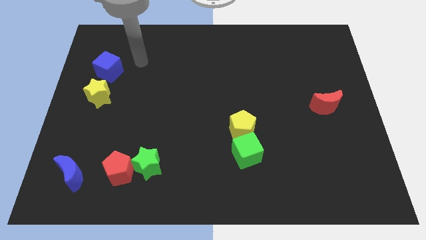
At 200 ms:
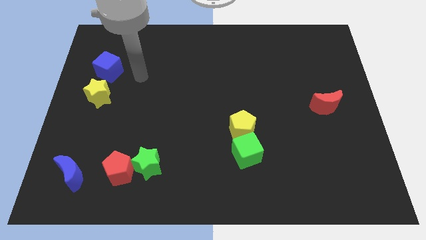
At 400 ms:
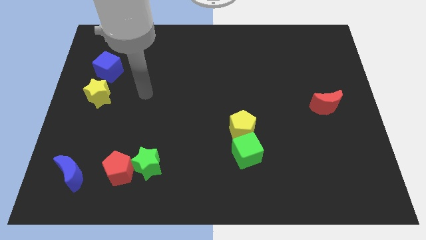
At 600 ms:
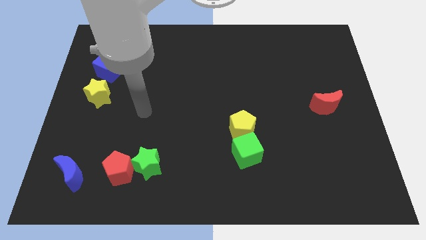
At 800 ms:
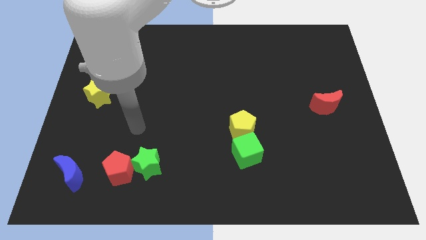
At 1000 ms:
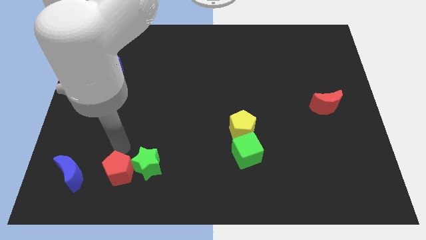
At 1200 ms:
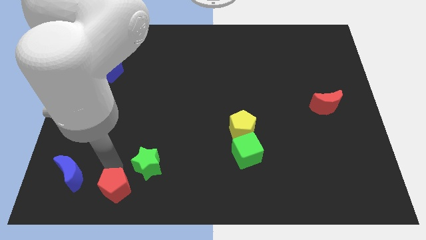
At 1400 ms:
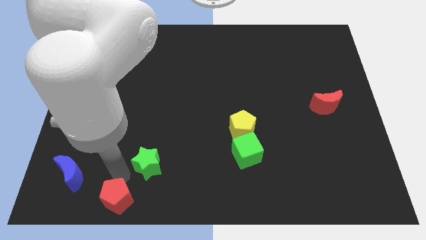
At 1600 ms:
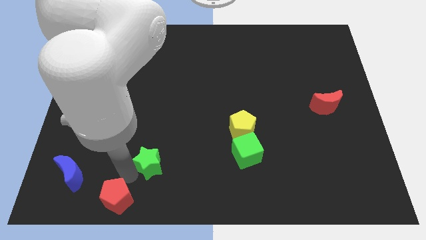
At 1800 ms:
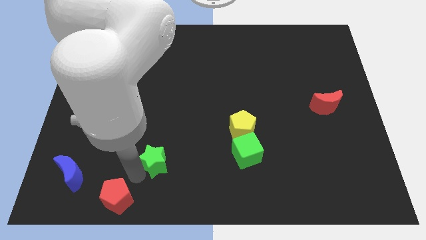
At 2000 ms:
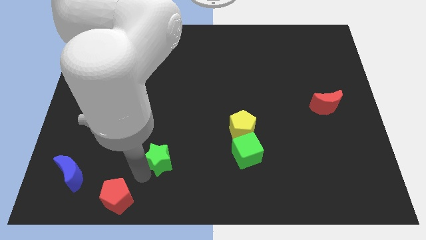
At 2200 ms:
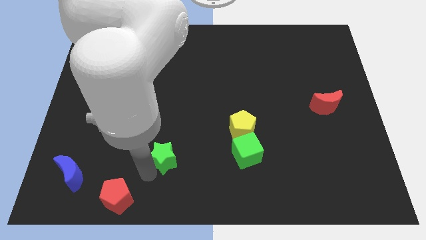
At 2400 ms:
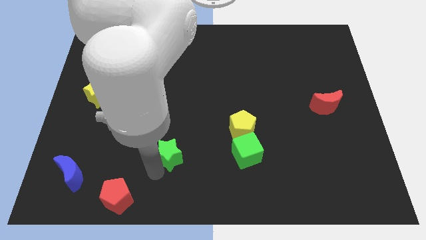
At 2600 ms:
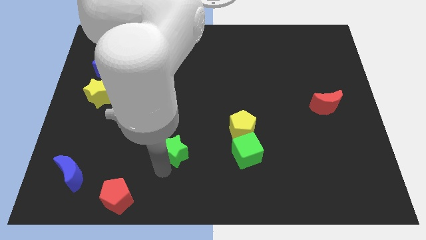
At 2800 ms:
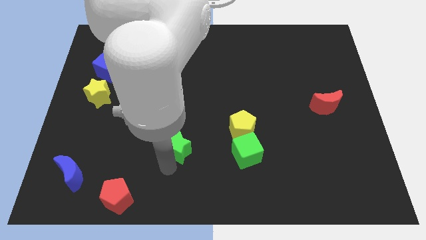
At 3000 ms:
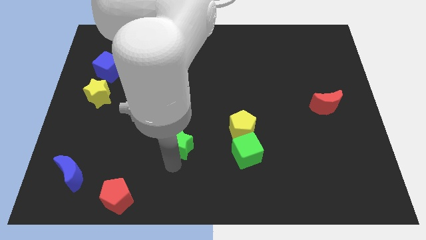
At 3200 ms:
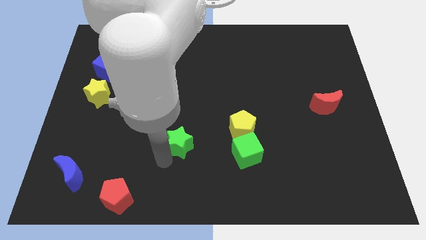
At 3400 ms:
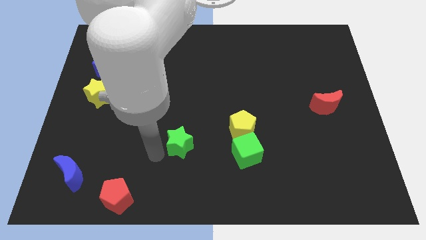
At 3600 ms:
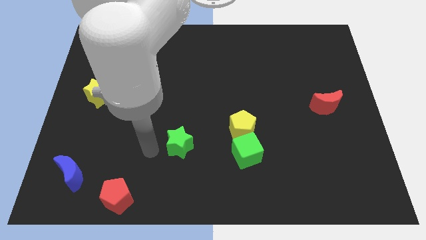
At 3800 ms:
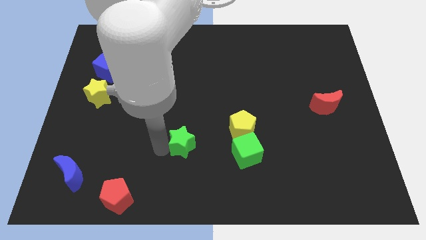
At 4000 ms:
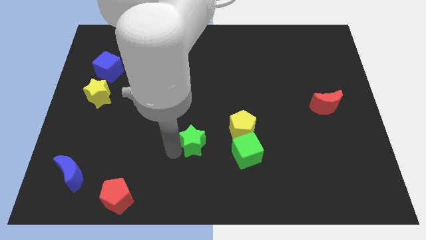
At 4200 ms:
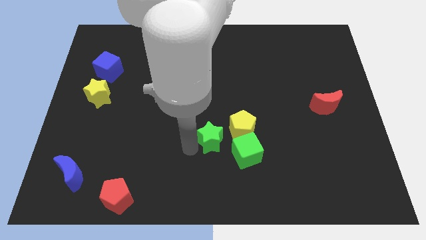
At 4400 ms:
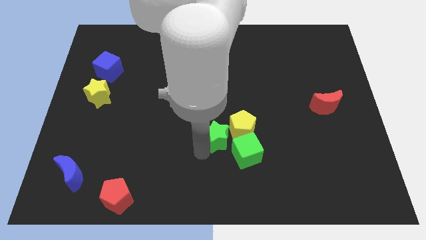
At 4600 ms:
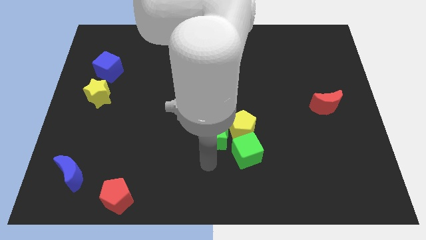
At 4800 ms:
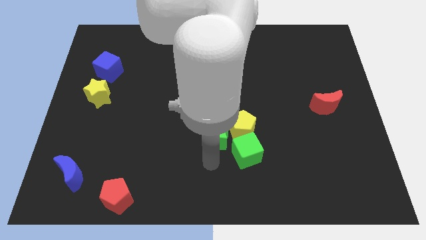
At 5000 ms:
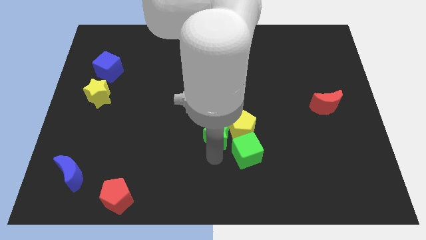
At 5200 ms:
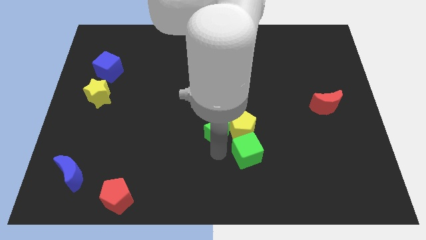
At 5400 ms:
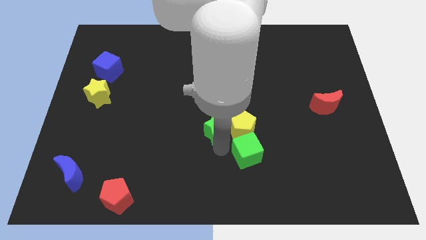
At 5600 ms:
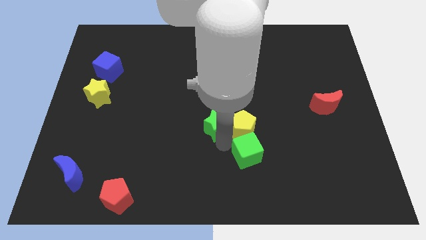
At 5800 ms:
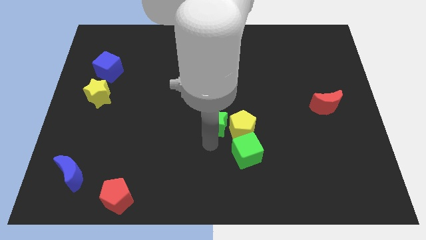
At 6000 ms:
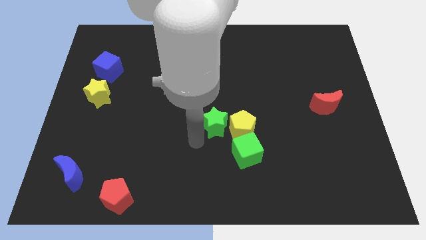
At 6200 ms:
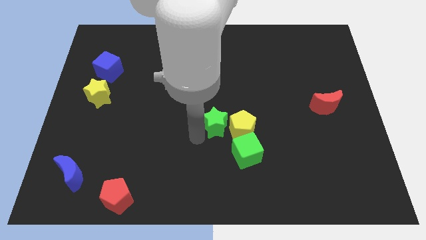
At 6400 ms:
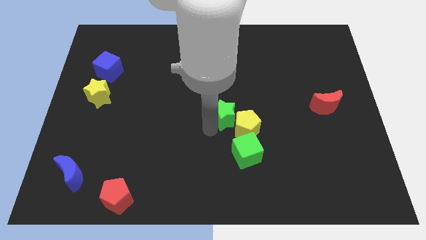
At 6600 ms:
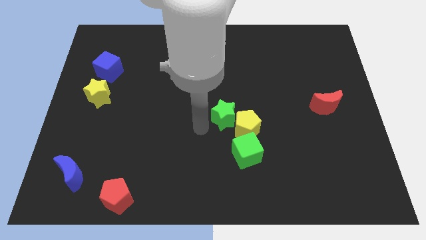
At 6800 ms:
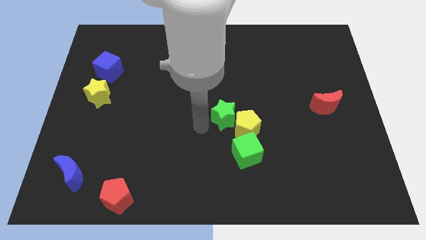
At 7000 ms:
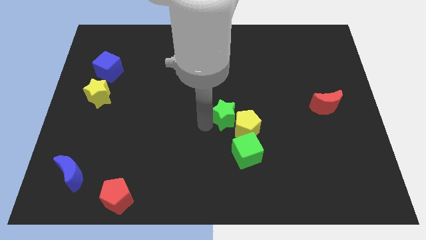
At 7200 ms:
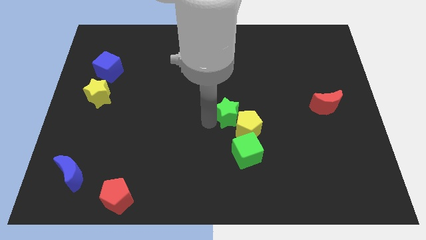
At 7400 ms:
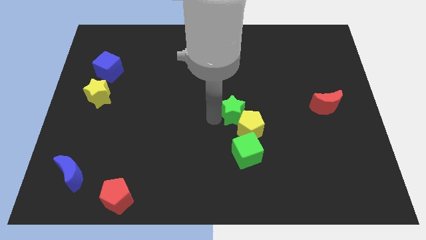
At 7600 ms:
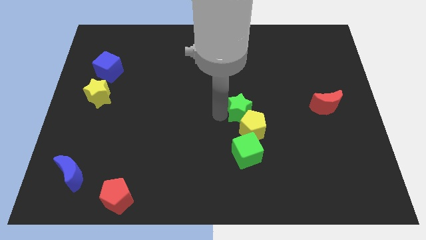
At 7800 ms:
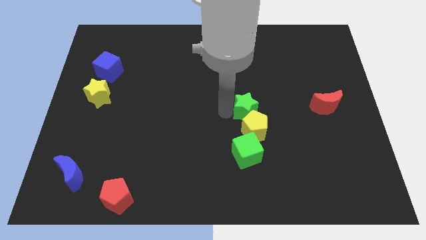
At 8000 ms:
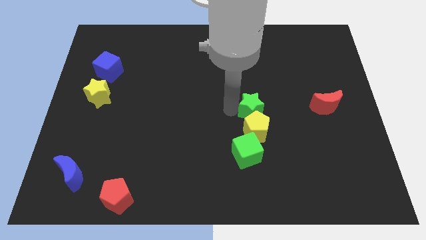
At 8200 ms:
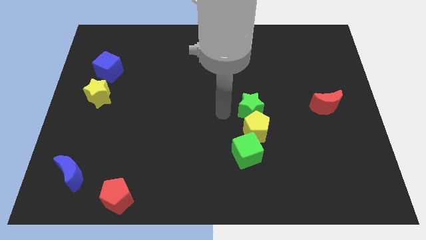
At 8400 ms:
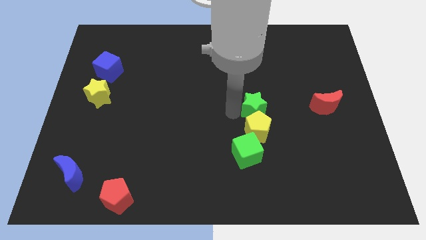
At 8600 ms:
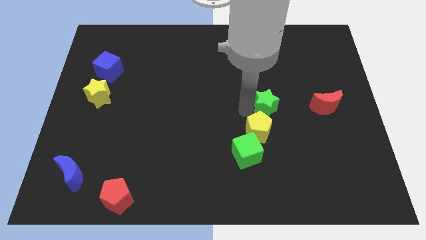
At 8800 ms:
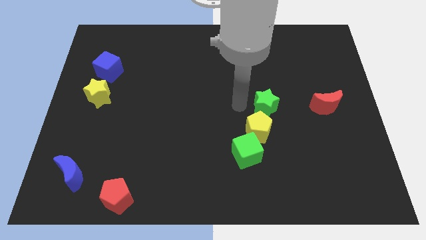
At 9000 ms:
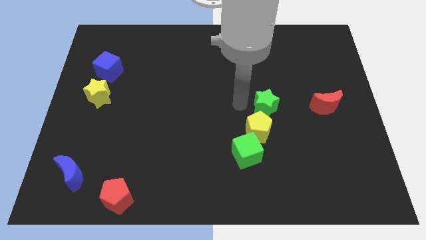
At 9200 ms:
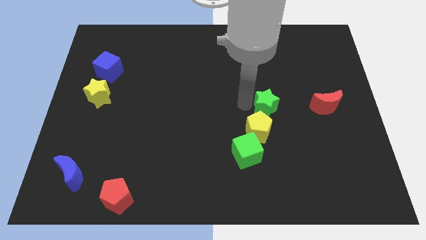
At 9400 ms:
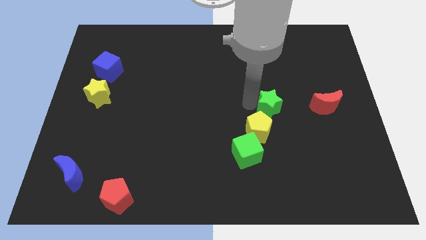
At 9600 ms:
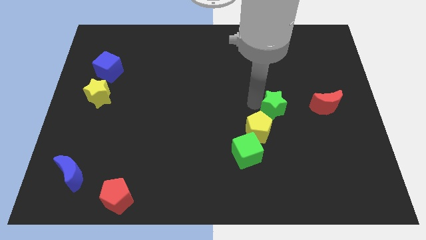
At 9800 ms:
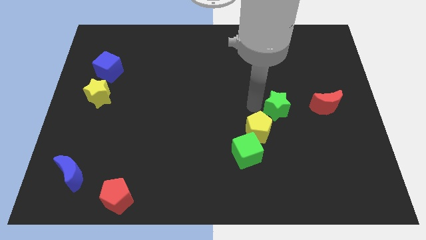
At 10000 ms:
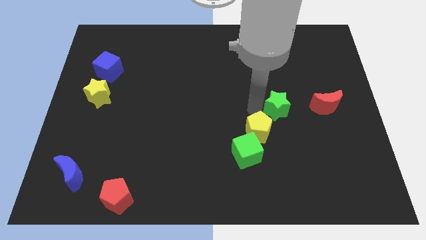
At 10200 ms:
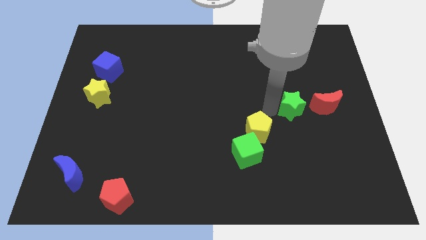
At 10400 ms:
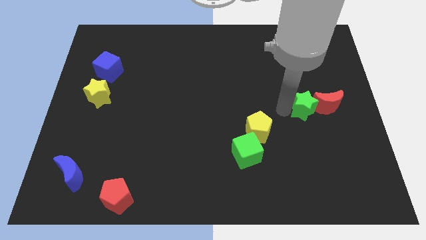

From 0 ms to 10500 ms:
put the green star next to the red moon

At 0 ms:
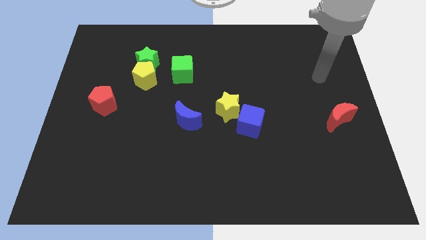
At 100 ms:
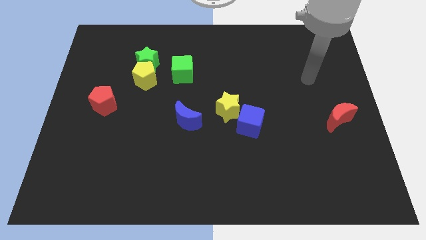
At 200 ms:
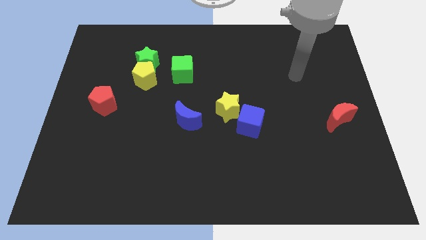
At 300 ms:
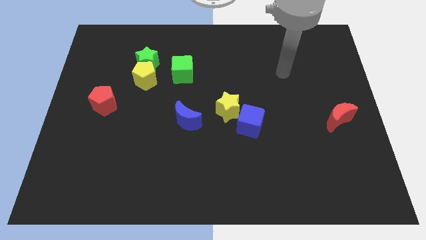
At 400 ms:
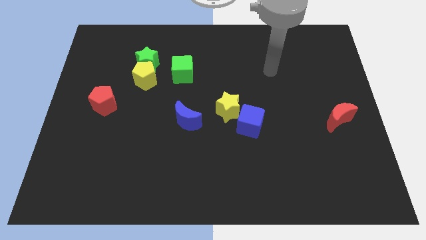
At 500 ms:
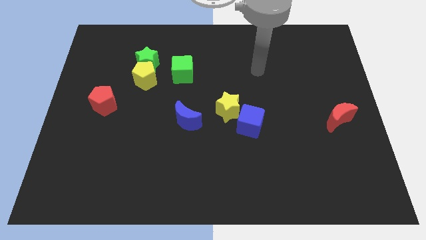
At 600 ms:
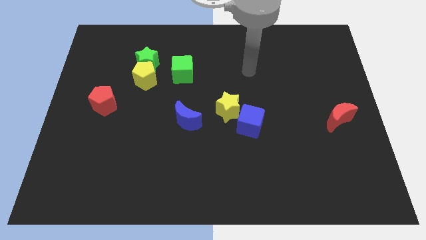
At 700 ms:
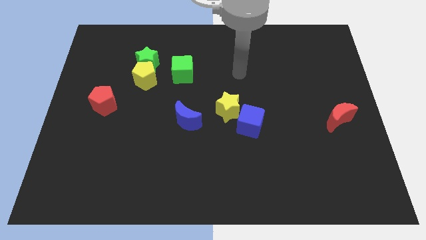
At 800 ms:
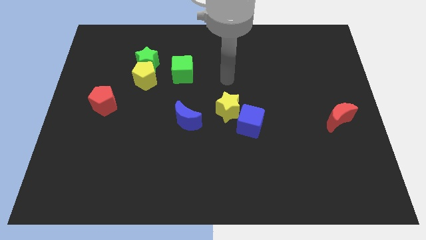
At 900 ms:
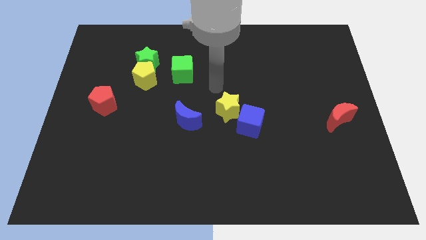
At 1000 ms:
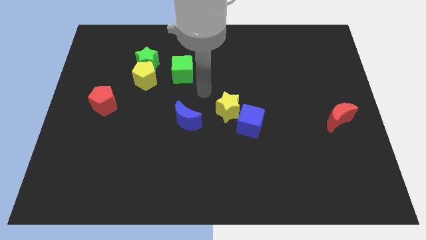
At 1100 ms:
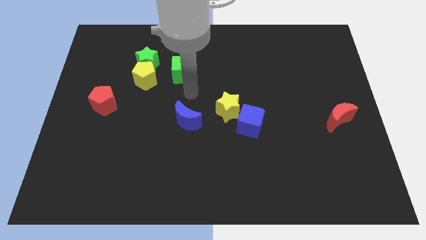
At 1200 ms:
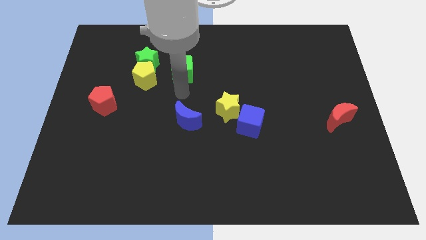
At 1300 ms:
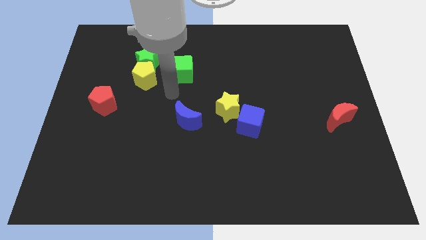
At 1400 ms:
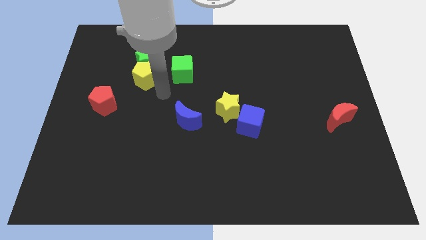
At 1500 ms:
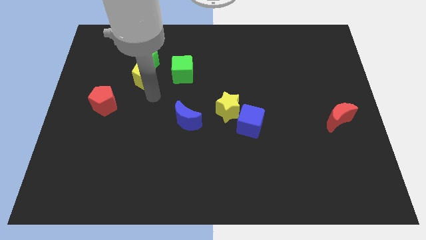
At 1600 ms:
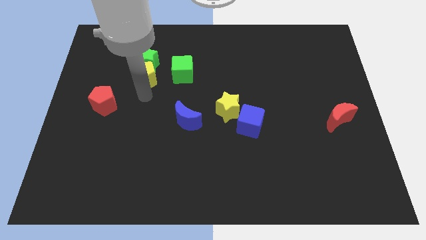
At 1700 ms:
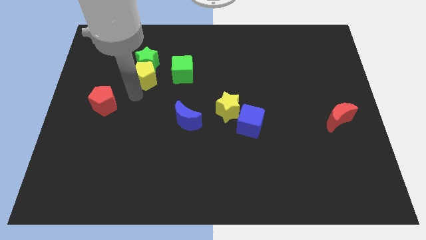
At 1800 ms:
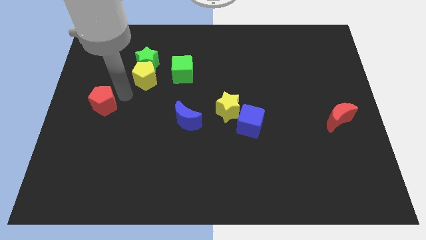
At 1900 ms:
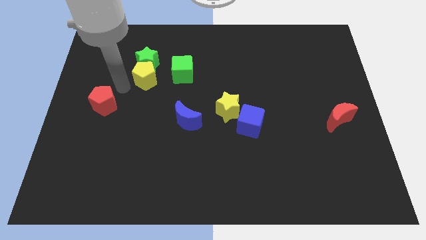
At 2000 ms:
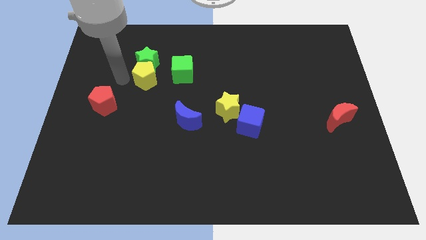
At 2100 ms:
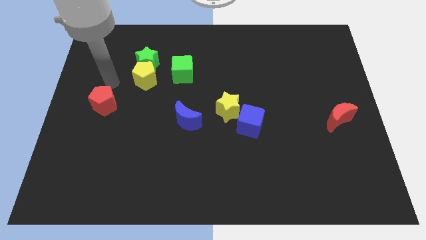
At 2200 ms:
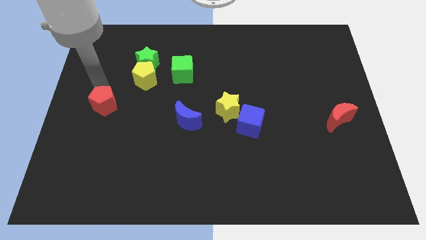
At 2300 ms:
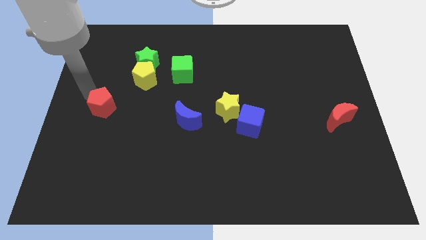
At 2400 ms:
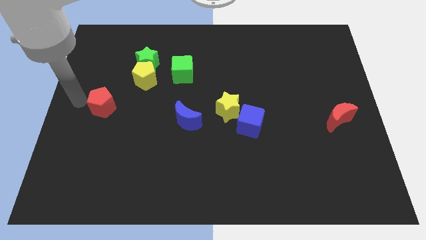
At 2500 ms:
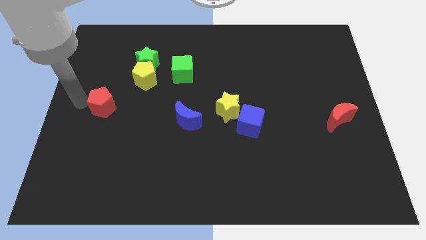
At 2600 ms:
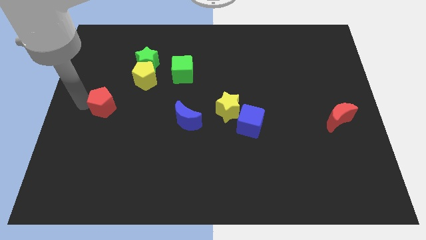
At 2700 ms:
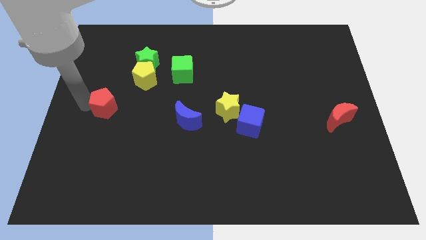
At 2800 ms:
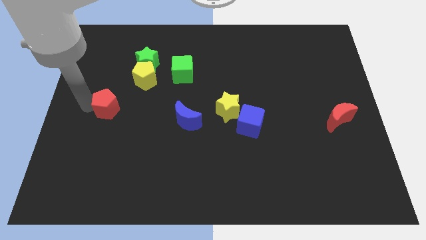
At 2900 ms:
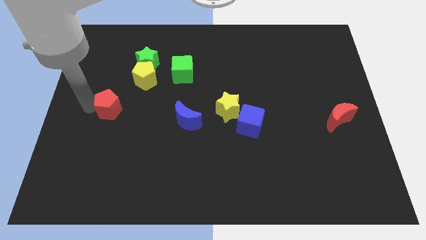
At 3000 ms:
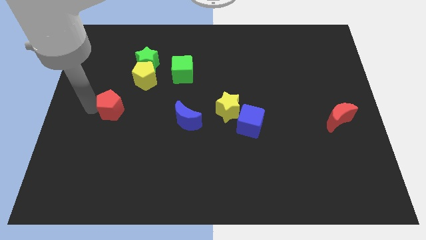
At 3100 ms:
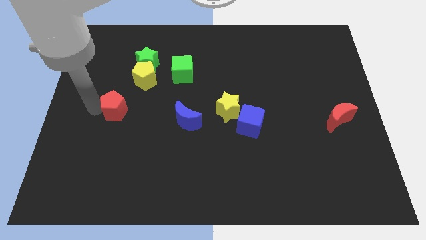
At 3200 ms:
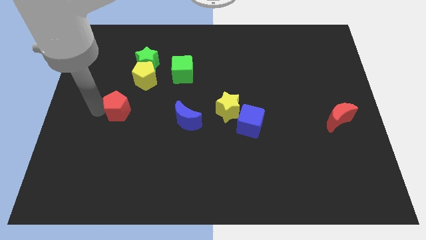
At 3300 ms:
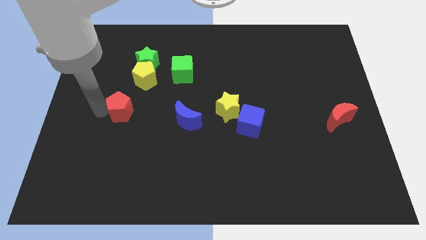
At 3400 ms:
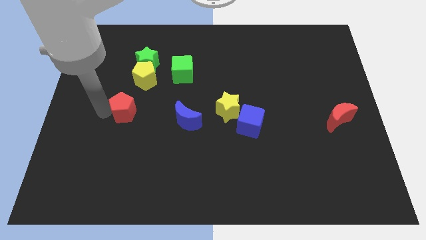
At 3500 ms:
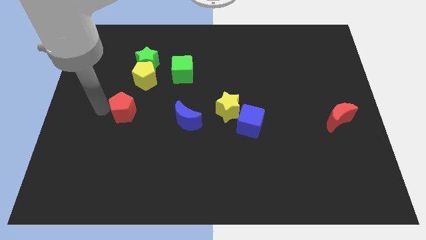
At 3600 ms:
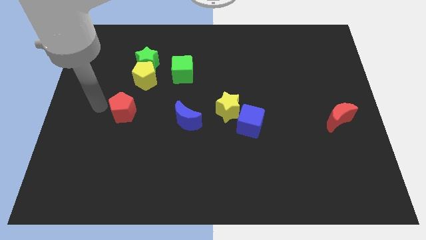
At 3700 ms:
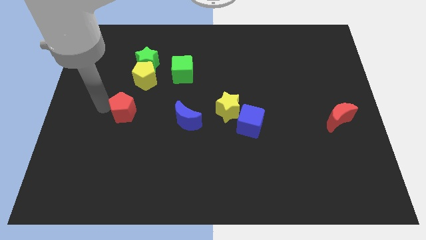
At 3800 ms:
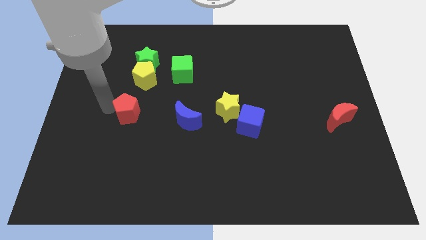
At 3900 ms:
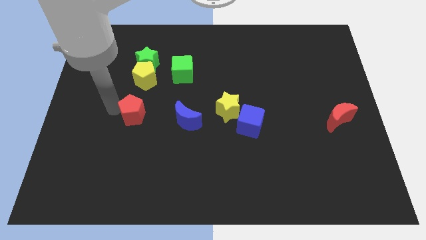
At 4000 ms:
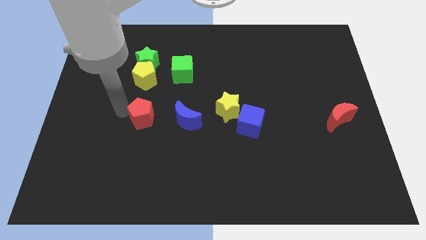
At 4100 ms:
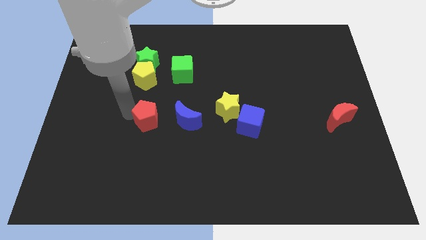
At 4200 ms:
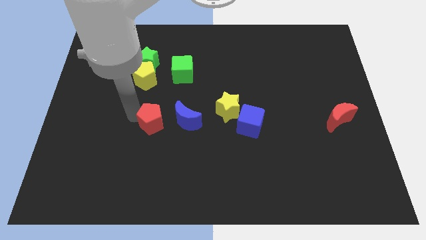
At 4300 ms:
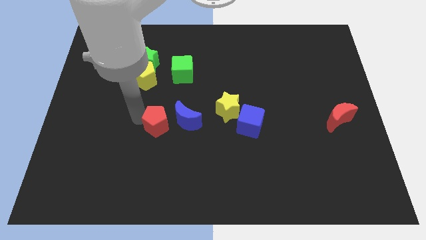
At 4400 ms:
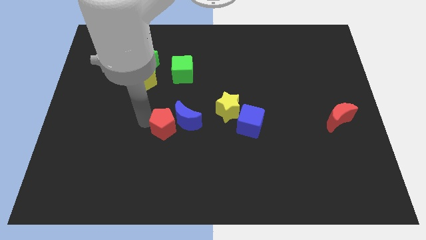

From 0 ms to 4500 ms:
slide the red pentagon close to the blue moon
